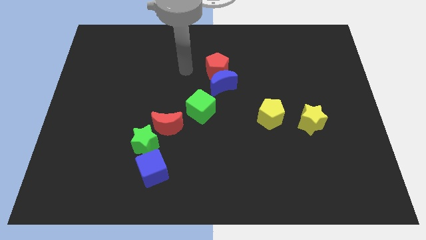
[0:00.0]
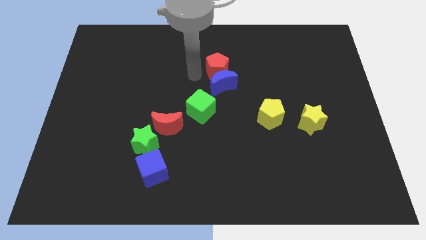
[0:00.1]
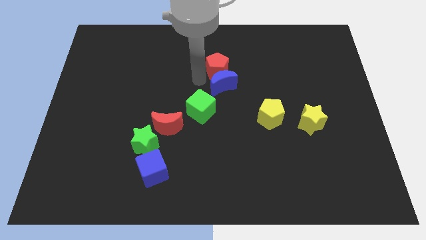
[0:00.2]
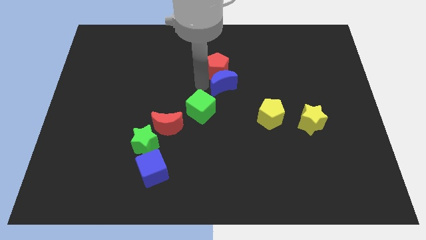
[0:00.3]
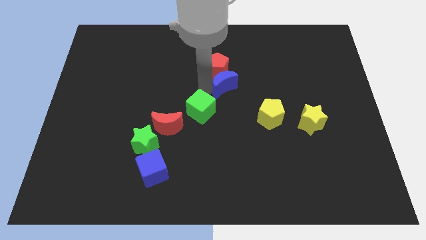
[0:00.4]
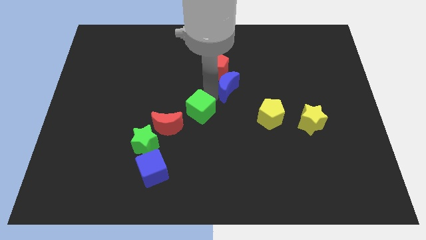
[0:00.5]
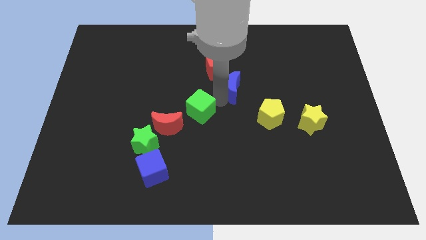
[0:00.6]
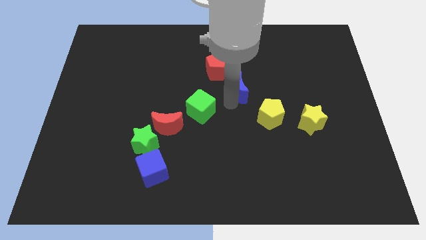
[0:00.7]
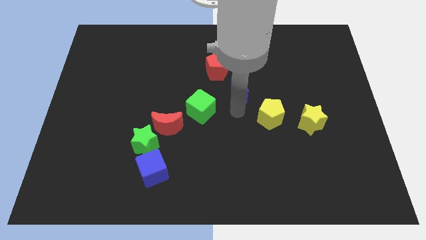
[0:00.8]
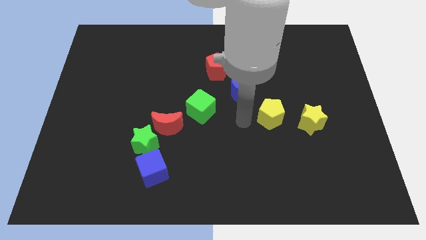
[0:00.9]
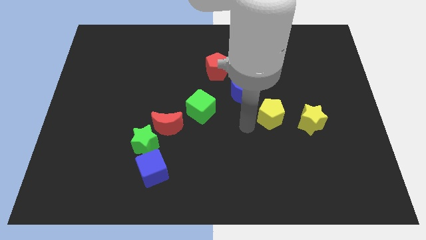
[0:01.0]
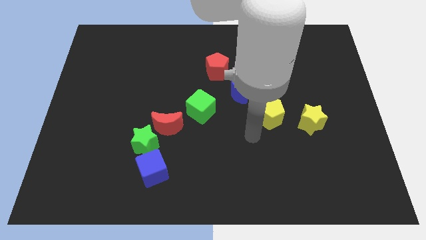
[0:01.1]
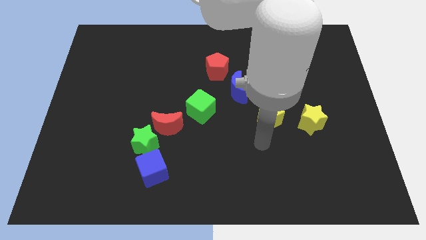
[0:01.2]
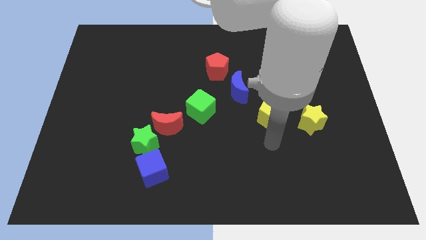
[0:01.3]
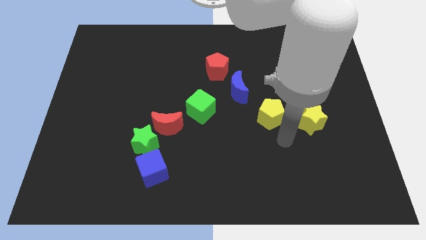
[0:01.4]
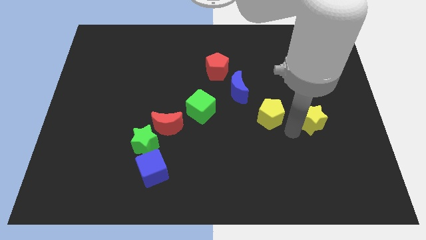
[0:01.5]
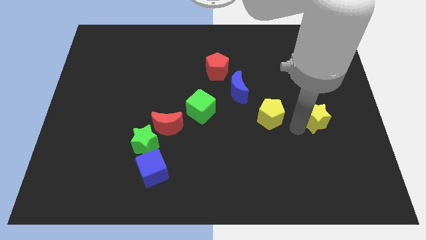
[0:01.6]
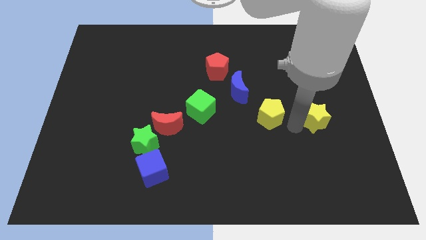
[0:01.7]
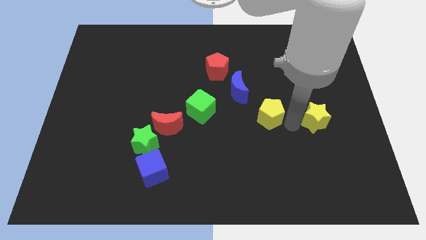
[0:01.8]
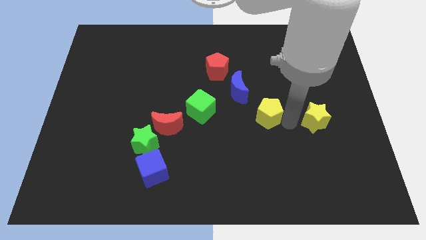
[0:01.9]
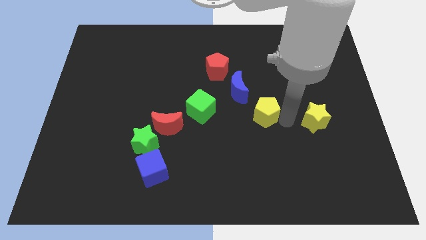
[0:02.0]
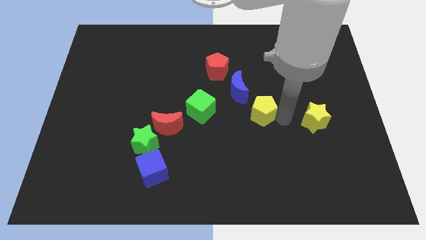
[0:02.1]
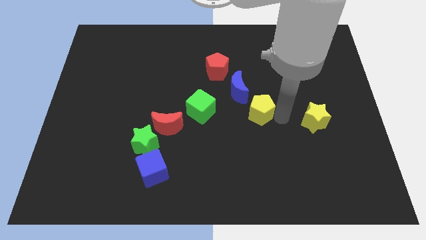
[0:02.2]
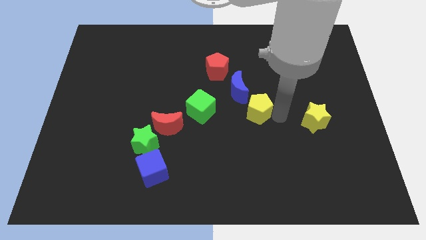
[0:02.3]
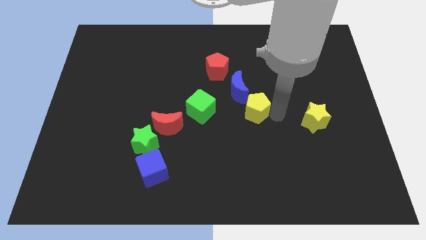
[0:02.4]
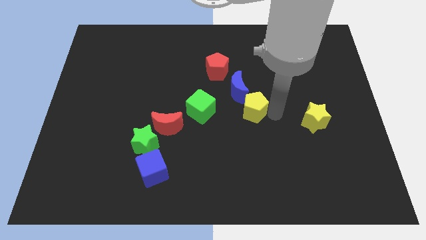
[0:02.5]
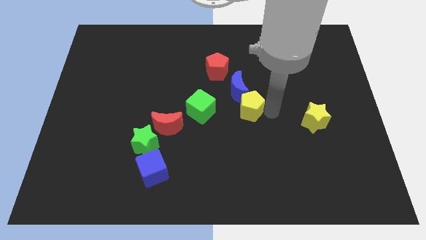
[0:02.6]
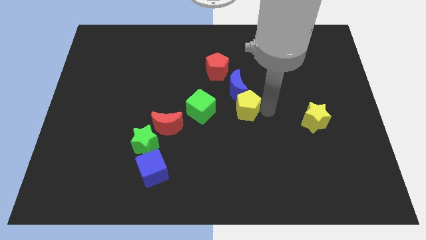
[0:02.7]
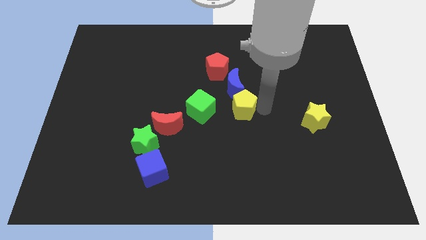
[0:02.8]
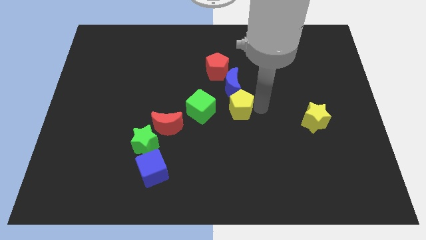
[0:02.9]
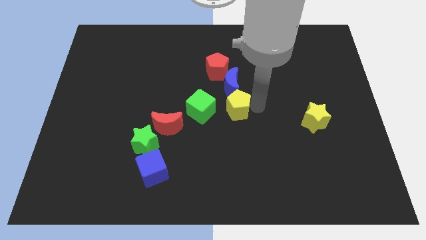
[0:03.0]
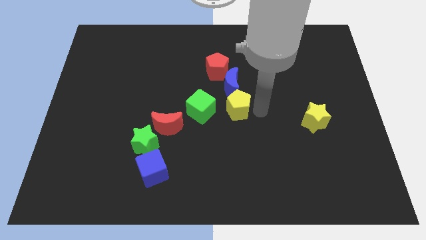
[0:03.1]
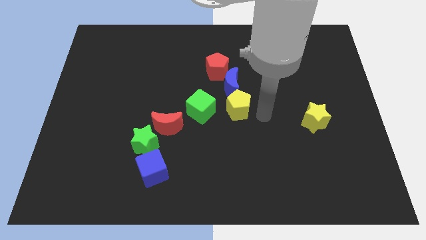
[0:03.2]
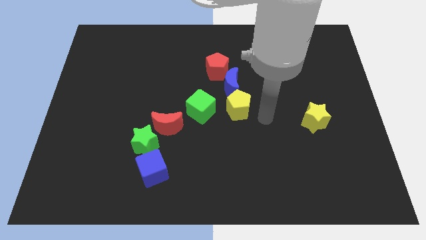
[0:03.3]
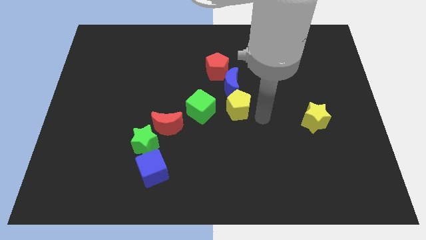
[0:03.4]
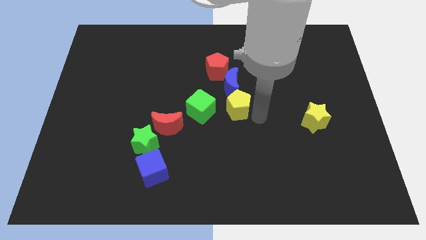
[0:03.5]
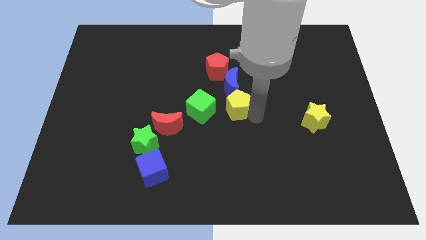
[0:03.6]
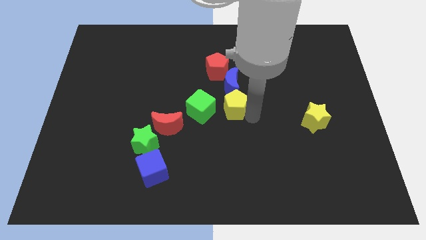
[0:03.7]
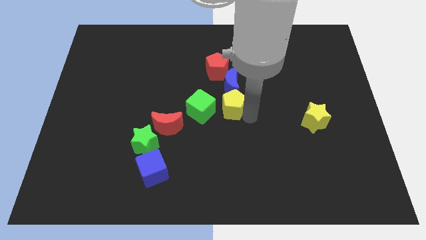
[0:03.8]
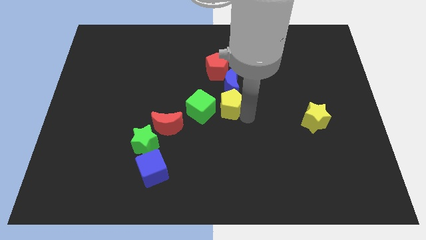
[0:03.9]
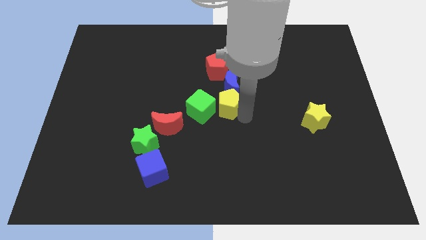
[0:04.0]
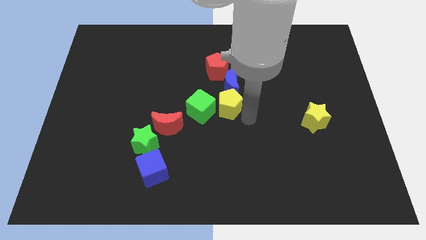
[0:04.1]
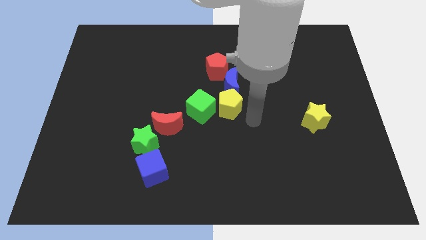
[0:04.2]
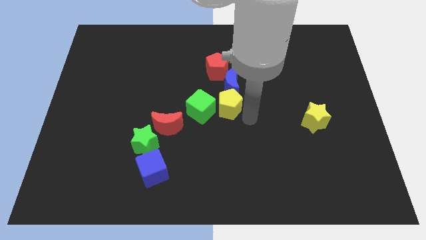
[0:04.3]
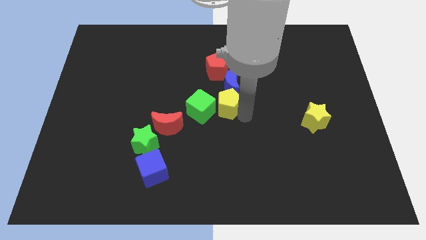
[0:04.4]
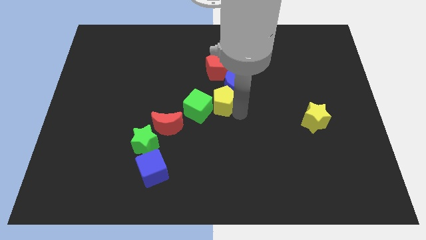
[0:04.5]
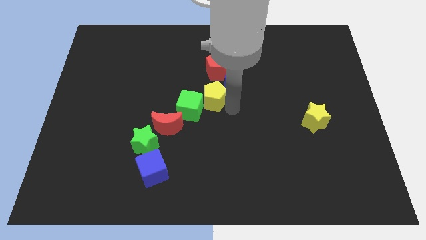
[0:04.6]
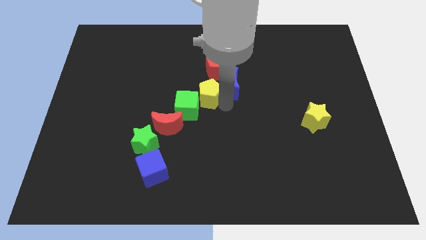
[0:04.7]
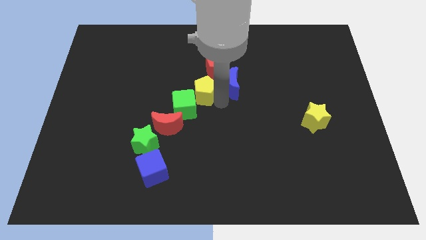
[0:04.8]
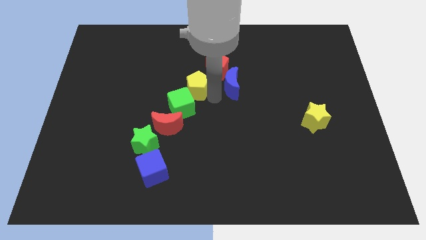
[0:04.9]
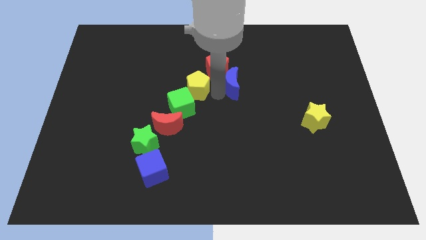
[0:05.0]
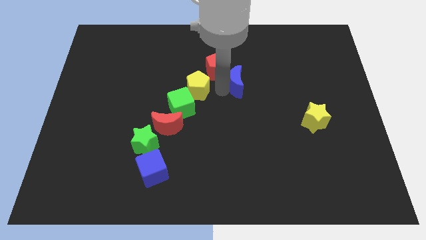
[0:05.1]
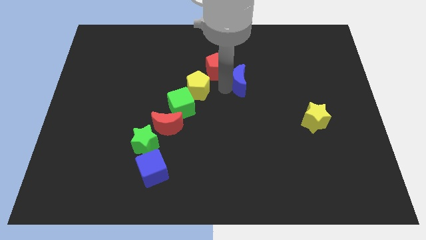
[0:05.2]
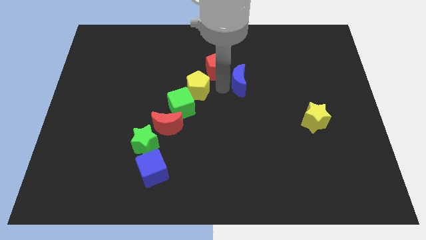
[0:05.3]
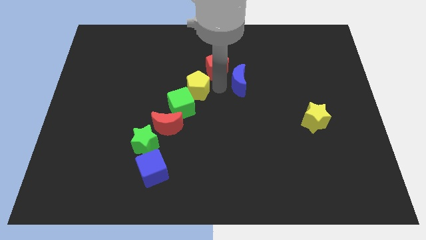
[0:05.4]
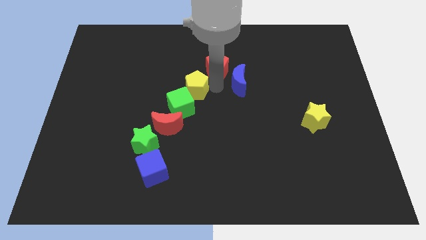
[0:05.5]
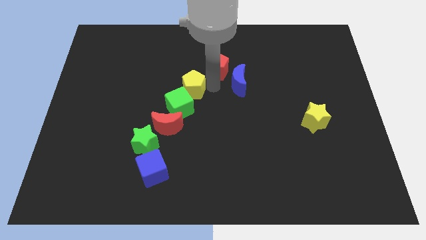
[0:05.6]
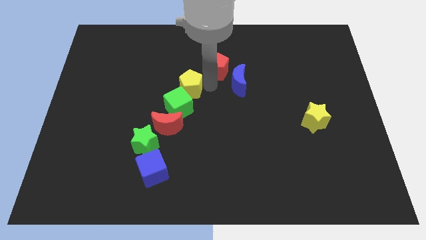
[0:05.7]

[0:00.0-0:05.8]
move the yellow pentagon to the top side of the red moon

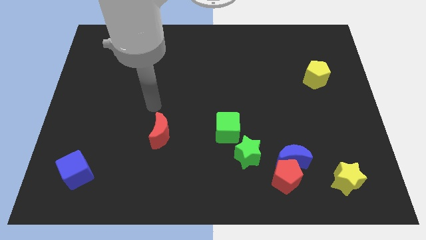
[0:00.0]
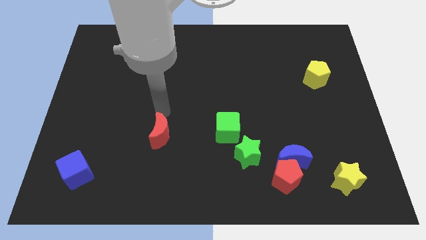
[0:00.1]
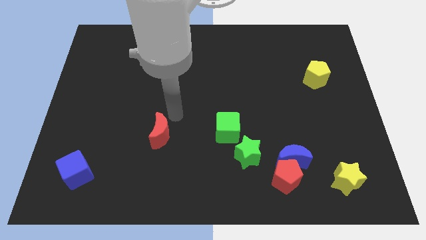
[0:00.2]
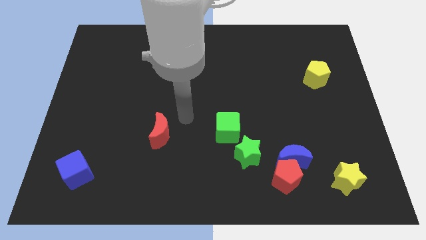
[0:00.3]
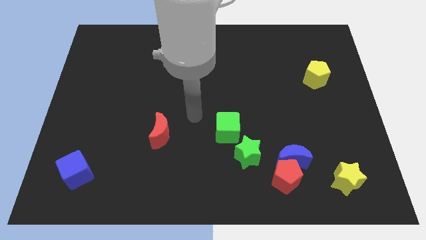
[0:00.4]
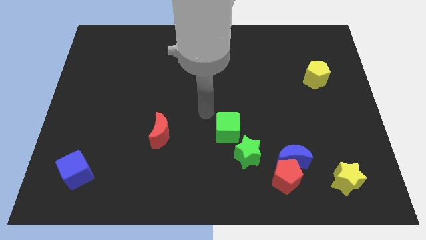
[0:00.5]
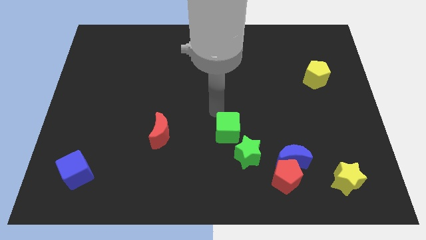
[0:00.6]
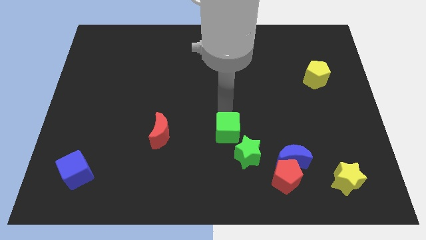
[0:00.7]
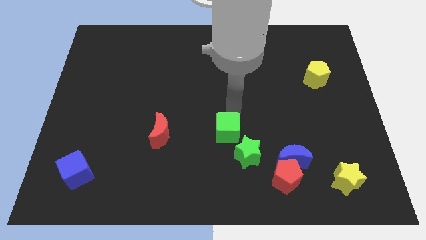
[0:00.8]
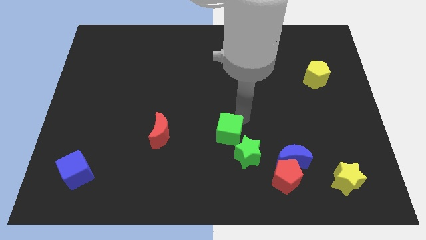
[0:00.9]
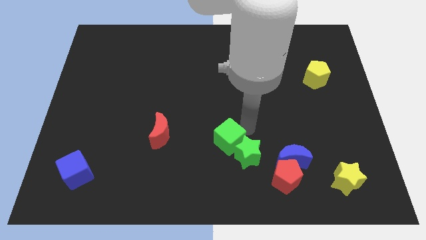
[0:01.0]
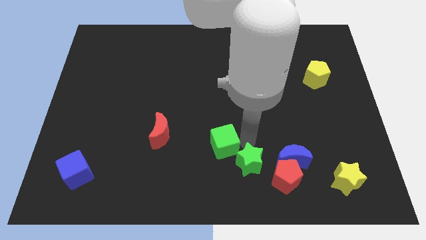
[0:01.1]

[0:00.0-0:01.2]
put the red pentagon just right of the green star
